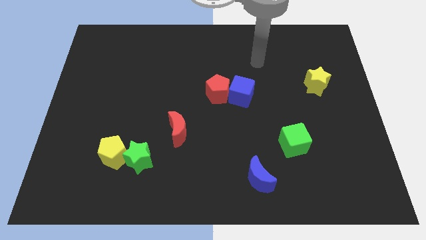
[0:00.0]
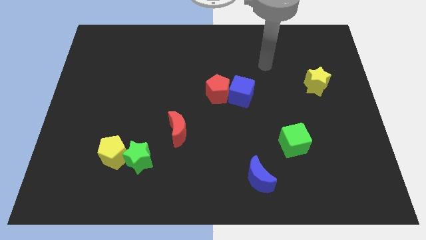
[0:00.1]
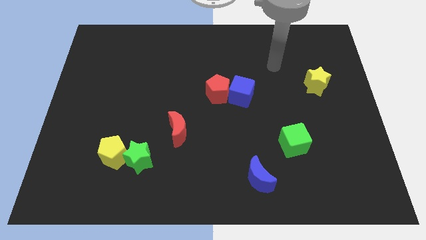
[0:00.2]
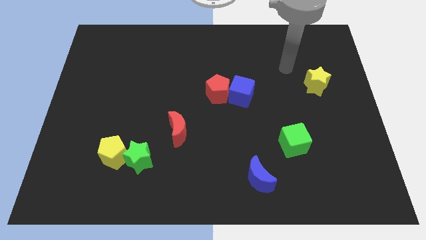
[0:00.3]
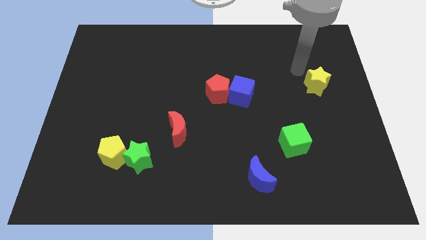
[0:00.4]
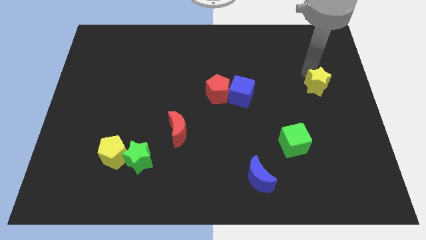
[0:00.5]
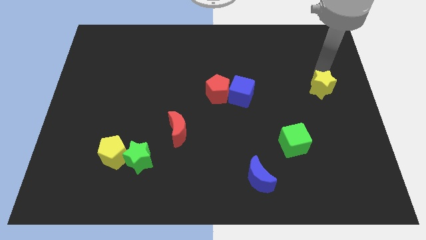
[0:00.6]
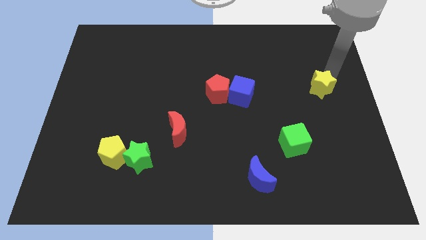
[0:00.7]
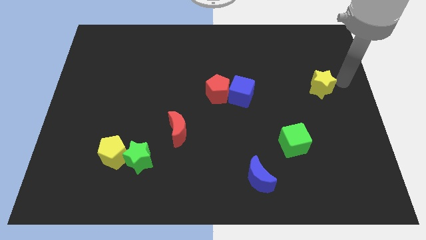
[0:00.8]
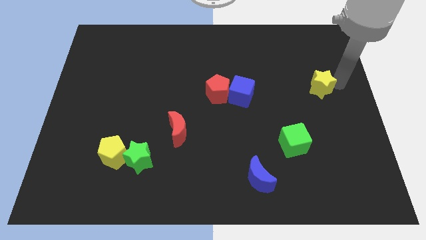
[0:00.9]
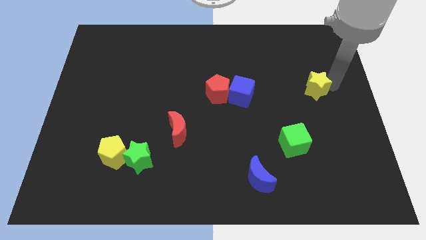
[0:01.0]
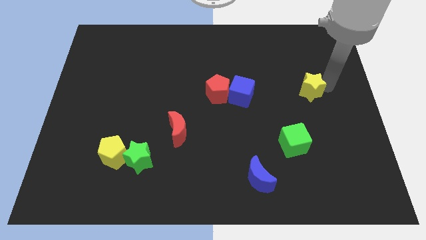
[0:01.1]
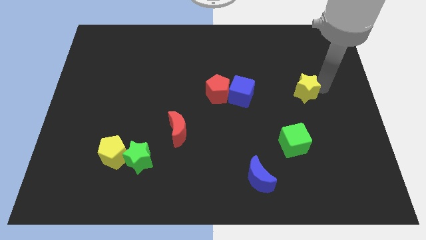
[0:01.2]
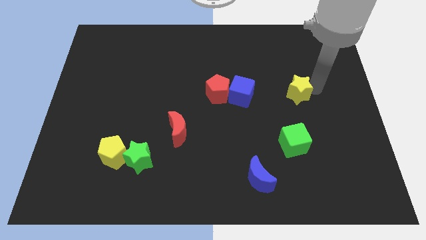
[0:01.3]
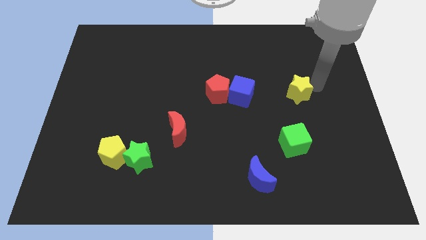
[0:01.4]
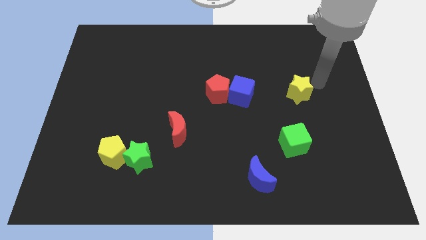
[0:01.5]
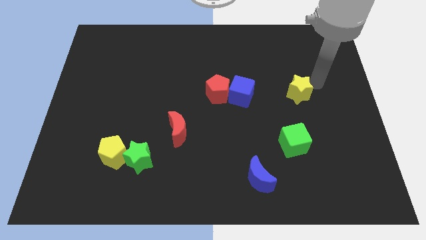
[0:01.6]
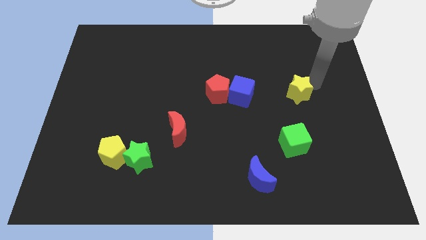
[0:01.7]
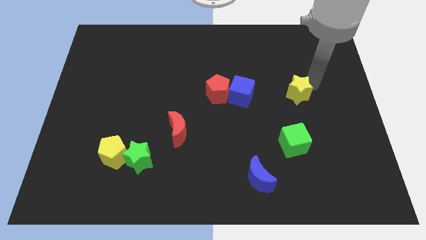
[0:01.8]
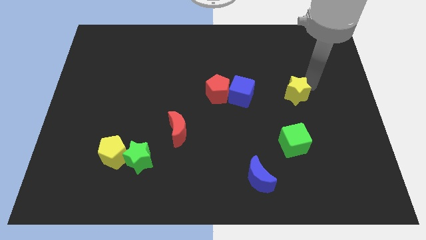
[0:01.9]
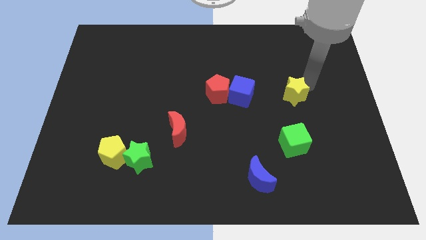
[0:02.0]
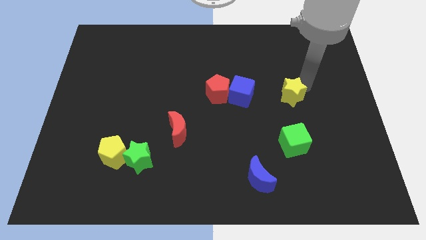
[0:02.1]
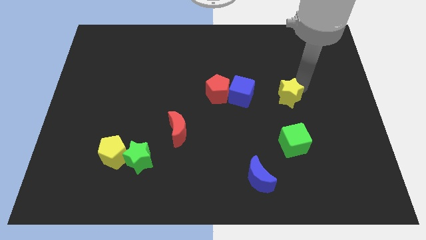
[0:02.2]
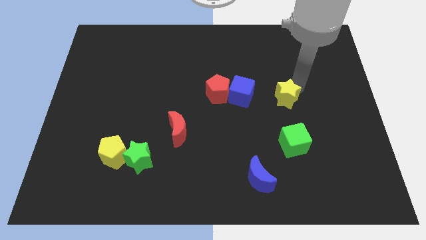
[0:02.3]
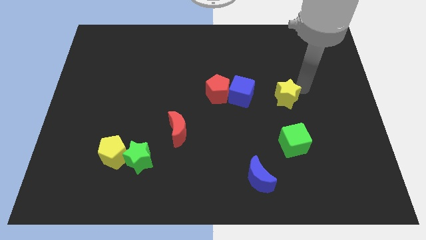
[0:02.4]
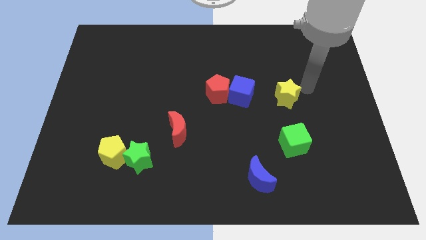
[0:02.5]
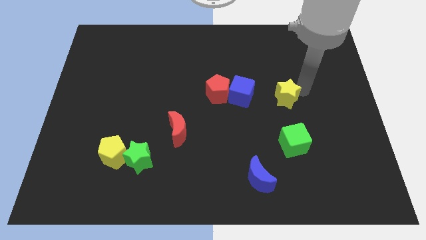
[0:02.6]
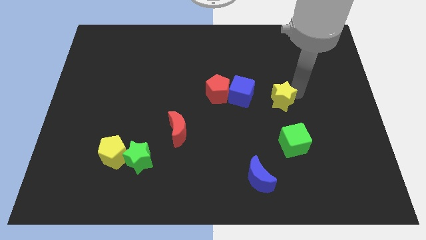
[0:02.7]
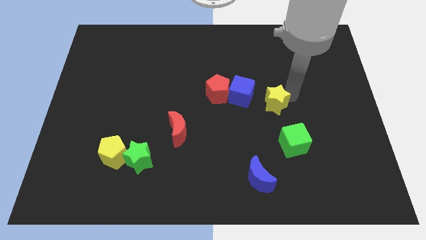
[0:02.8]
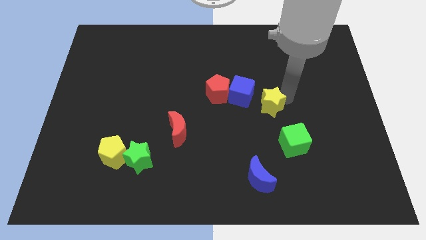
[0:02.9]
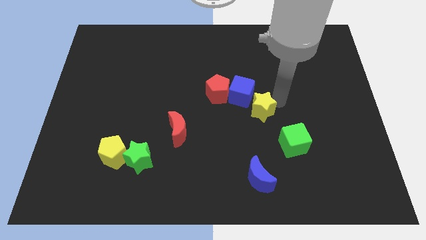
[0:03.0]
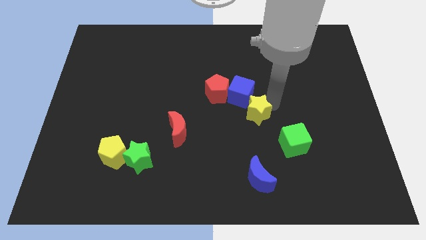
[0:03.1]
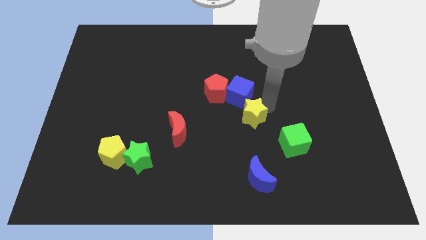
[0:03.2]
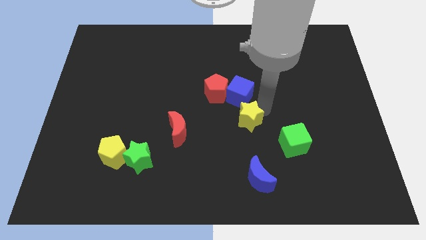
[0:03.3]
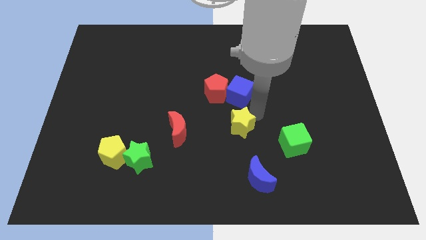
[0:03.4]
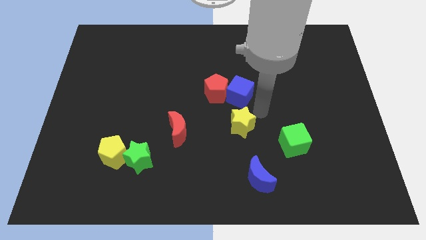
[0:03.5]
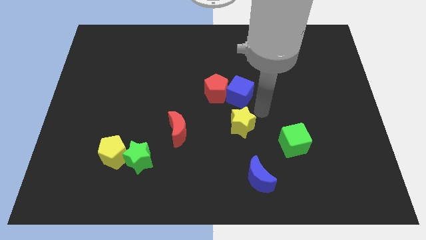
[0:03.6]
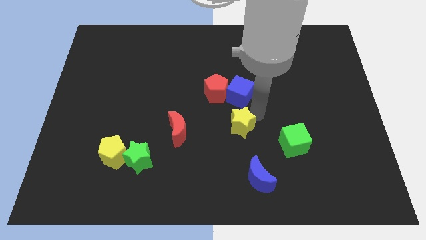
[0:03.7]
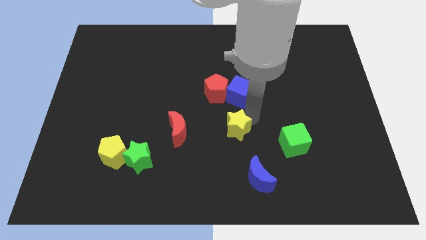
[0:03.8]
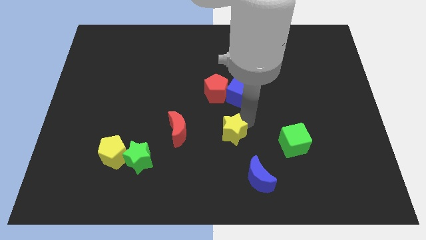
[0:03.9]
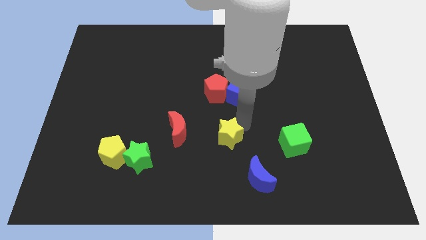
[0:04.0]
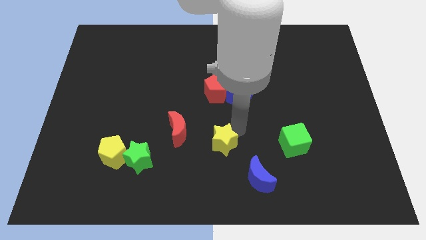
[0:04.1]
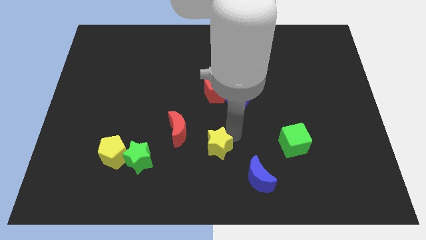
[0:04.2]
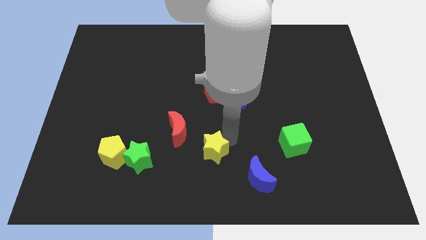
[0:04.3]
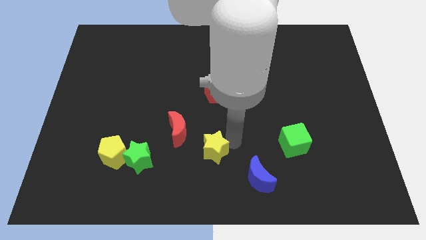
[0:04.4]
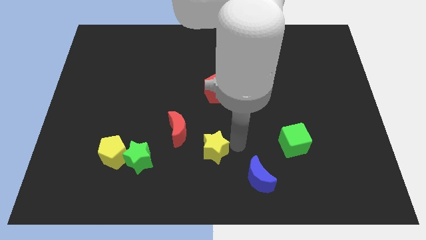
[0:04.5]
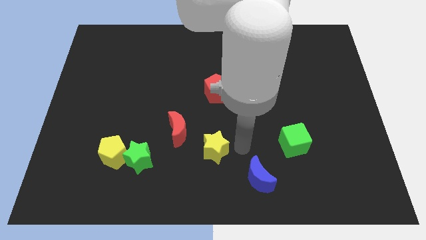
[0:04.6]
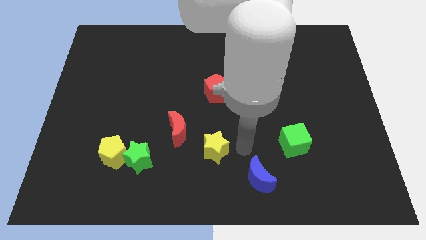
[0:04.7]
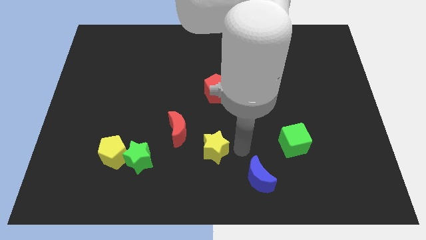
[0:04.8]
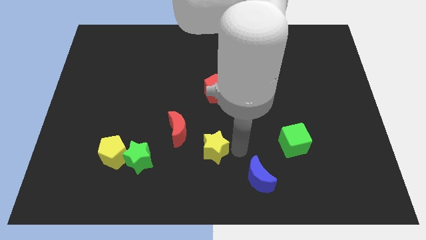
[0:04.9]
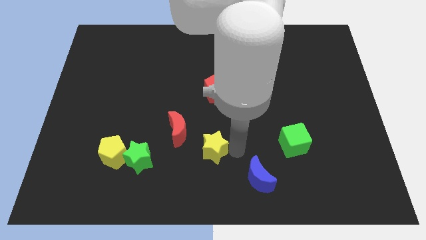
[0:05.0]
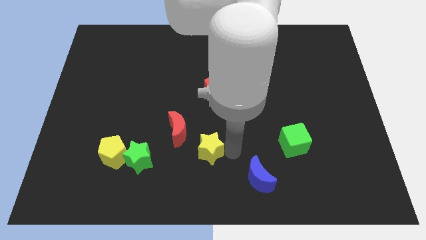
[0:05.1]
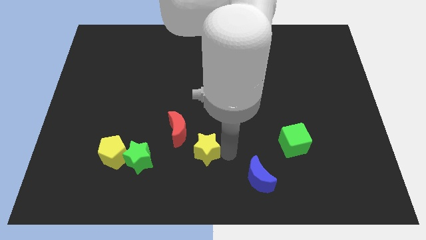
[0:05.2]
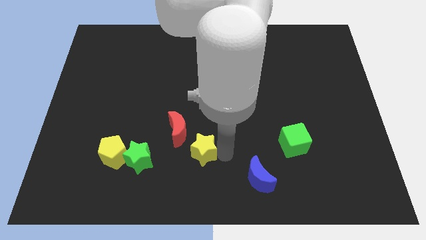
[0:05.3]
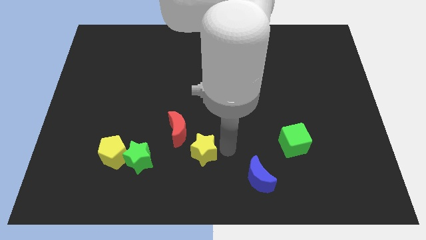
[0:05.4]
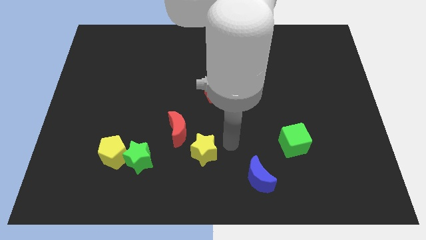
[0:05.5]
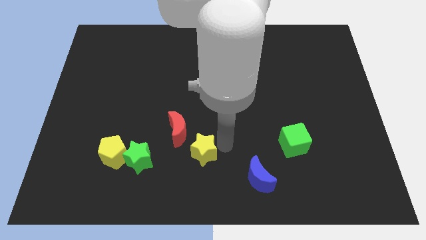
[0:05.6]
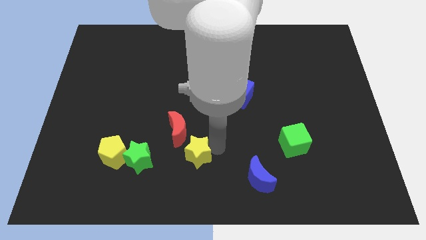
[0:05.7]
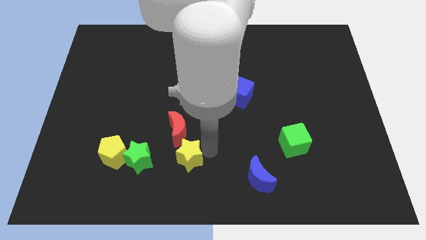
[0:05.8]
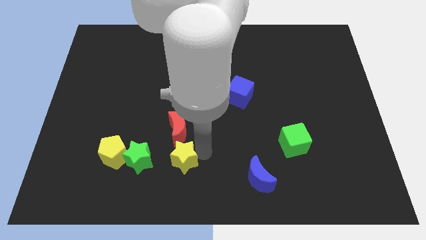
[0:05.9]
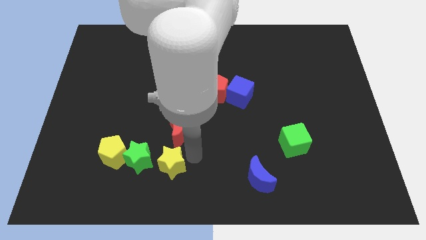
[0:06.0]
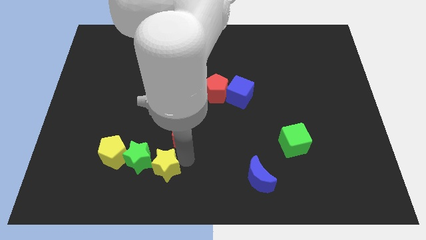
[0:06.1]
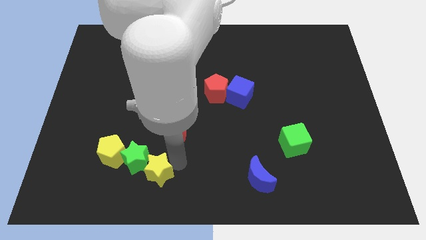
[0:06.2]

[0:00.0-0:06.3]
put the yellow star diagonally down and to the right of the yellow pentagon

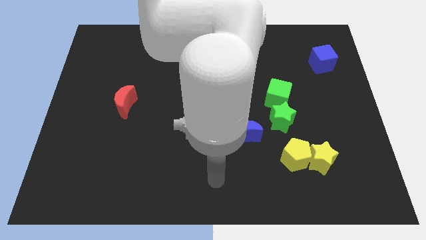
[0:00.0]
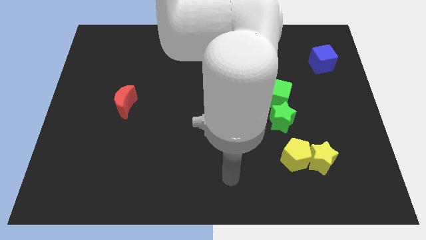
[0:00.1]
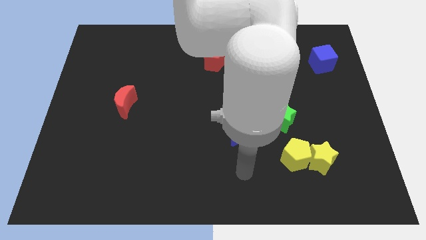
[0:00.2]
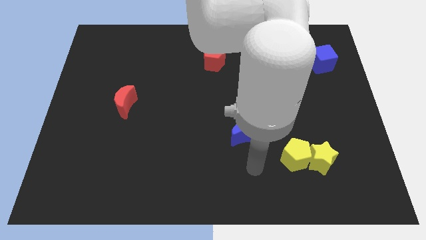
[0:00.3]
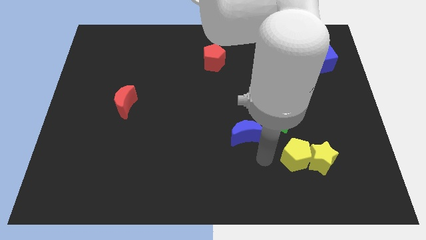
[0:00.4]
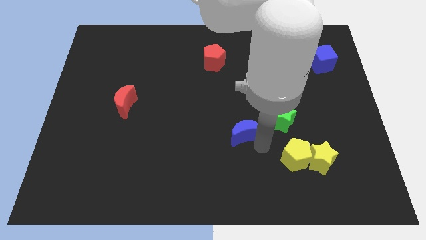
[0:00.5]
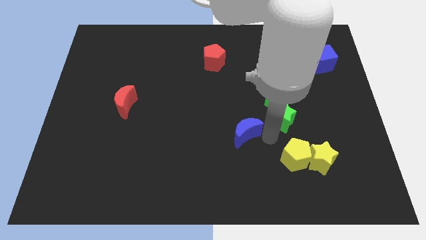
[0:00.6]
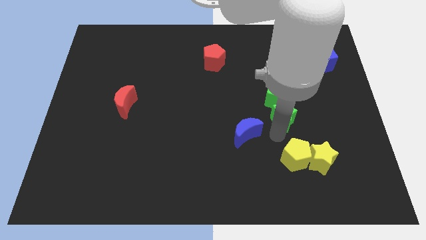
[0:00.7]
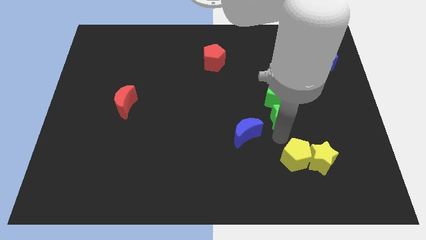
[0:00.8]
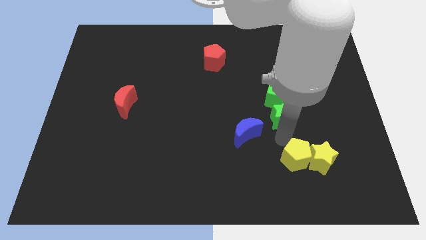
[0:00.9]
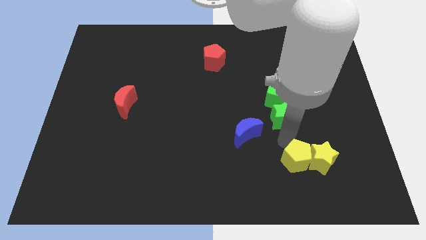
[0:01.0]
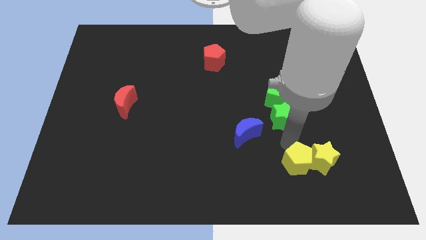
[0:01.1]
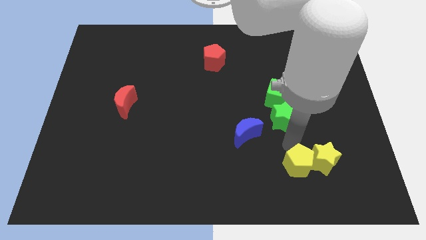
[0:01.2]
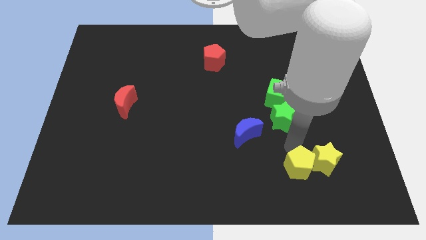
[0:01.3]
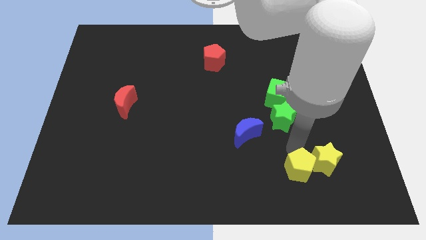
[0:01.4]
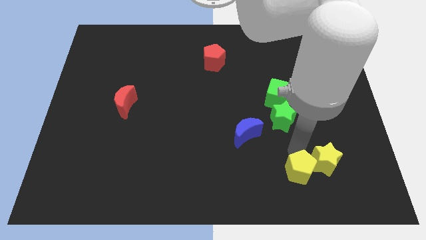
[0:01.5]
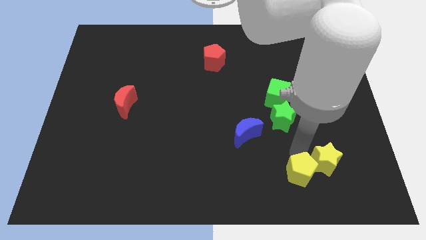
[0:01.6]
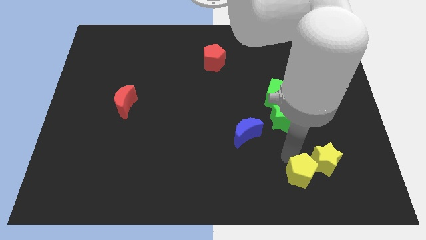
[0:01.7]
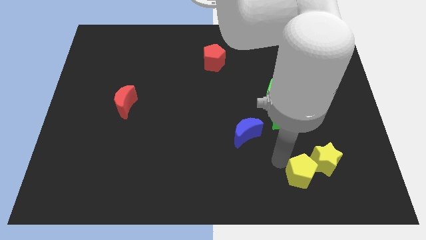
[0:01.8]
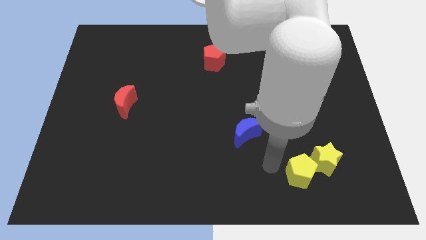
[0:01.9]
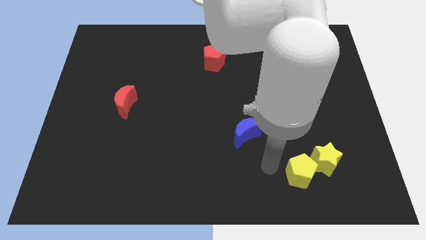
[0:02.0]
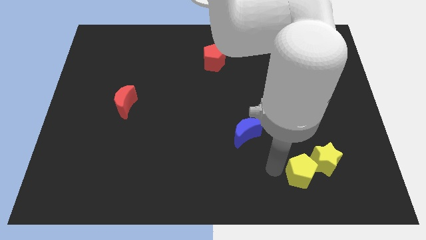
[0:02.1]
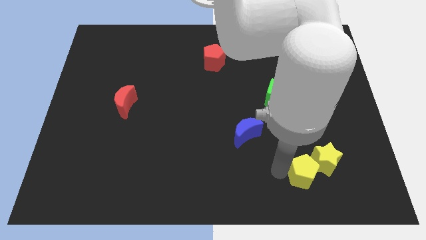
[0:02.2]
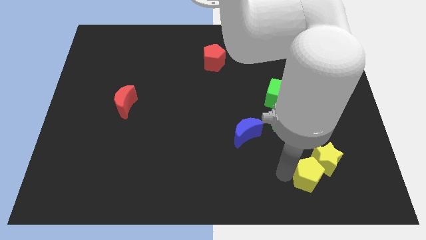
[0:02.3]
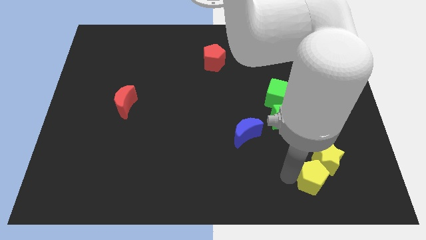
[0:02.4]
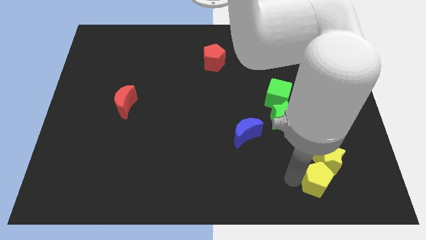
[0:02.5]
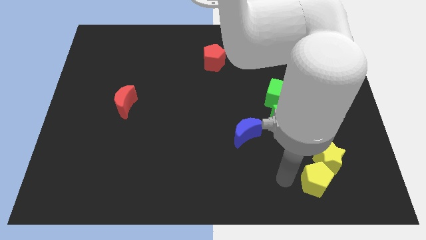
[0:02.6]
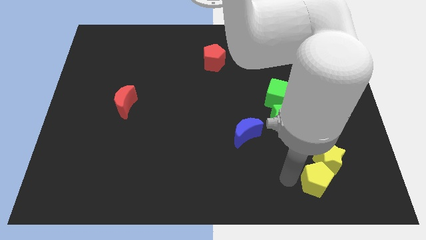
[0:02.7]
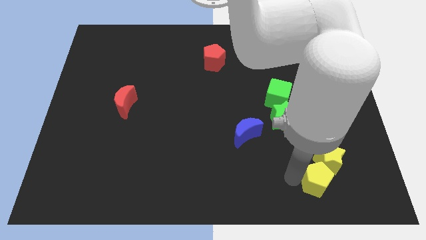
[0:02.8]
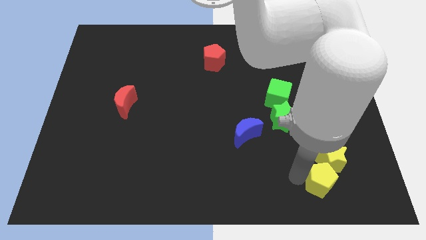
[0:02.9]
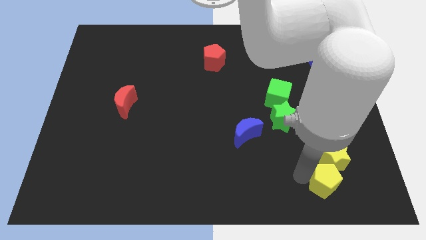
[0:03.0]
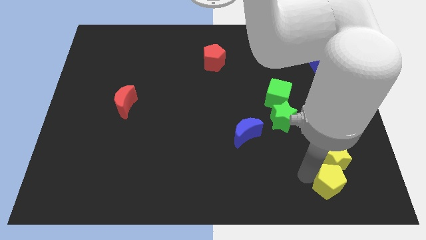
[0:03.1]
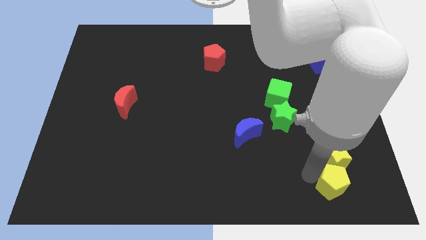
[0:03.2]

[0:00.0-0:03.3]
slide the yellow pentagon to the bottom right side of the yellow star
